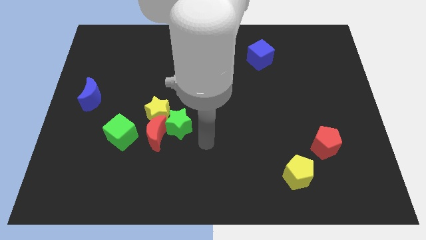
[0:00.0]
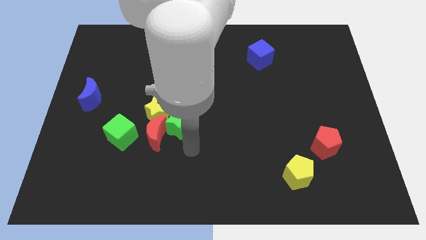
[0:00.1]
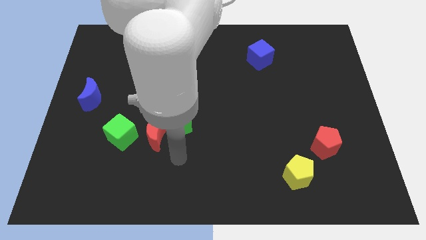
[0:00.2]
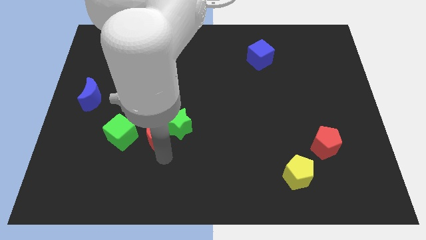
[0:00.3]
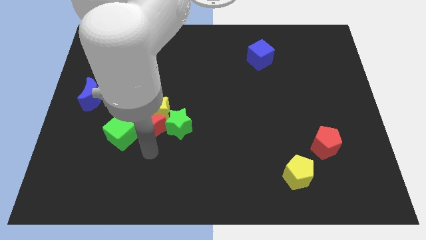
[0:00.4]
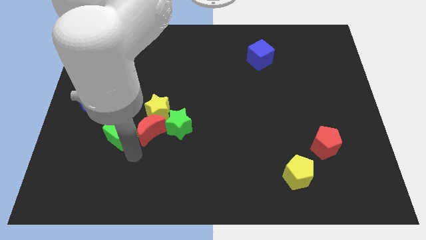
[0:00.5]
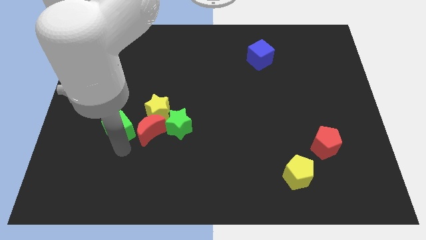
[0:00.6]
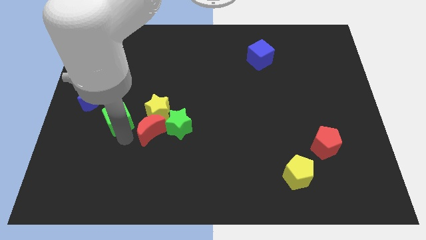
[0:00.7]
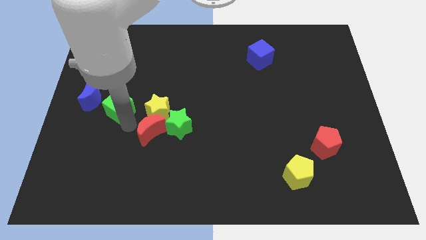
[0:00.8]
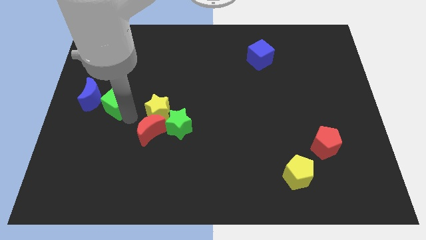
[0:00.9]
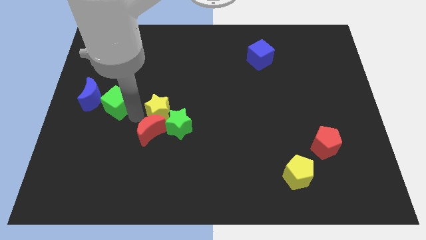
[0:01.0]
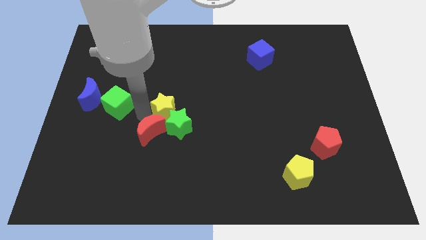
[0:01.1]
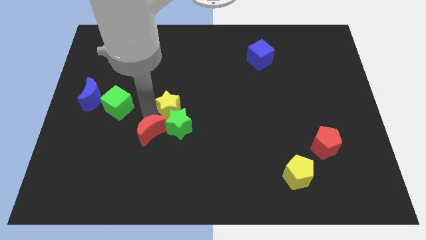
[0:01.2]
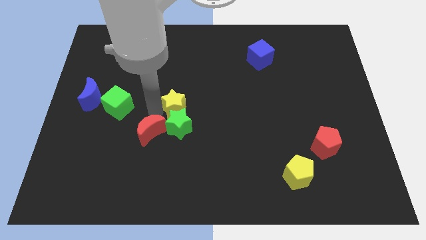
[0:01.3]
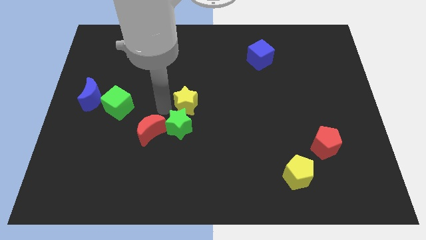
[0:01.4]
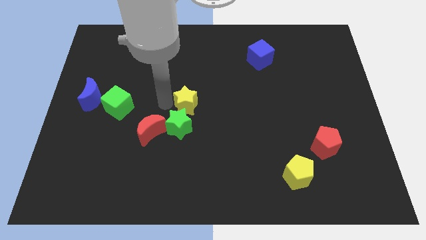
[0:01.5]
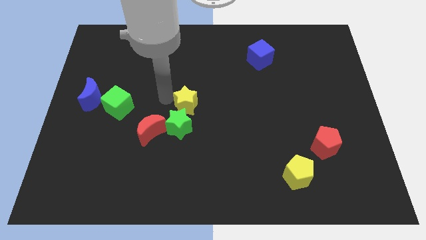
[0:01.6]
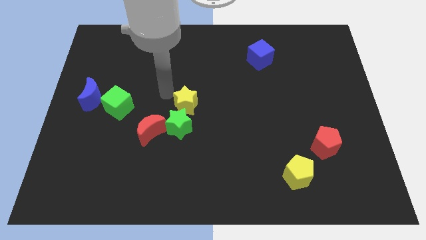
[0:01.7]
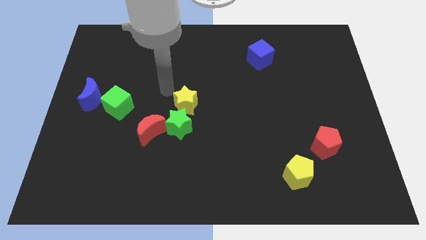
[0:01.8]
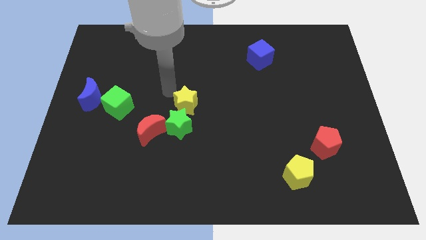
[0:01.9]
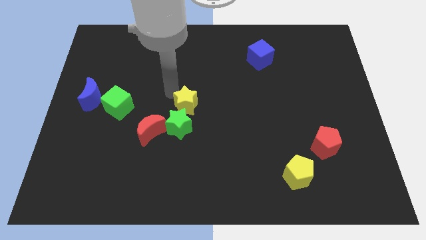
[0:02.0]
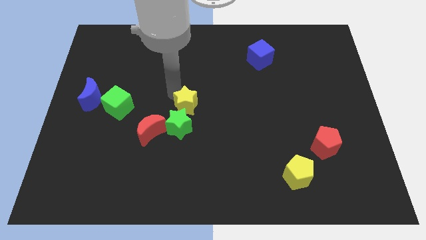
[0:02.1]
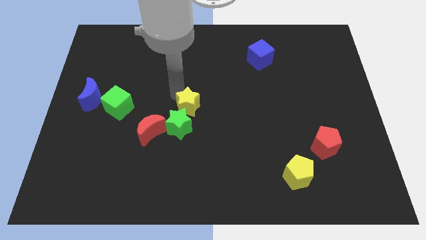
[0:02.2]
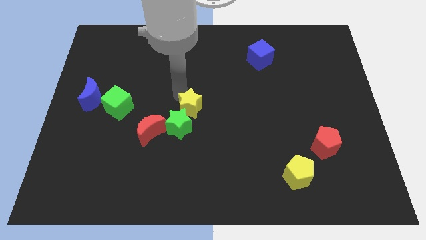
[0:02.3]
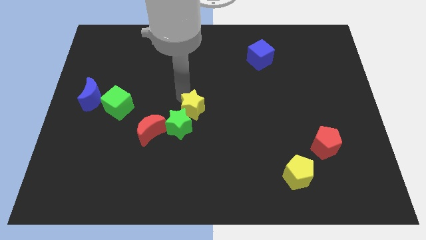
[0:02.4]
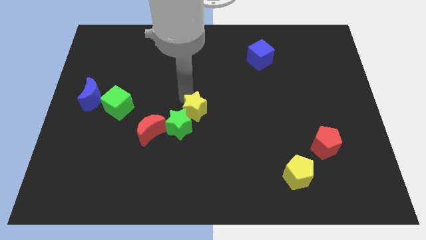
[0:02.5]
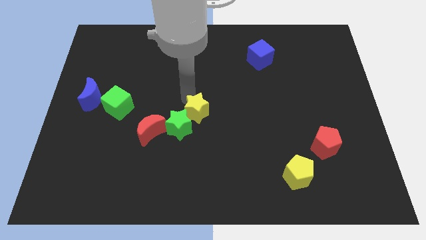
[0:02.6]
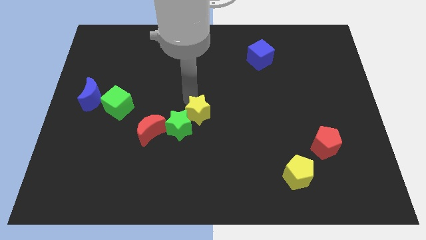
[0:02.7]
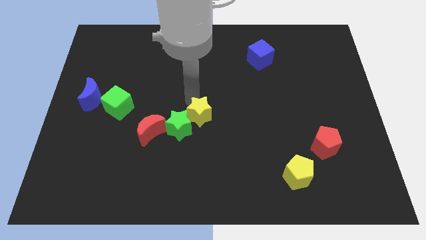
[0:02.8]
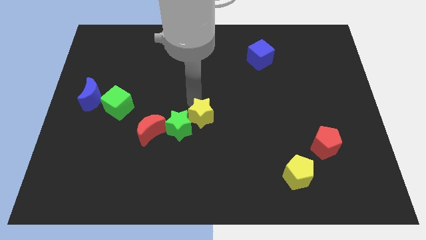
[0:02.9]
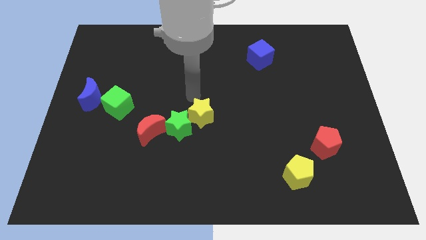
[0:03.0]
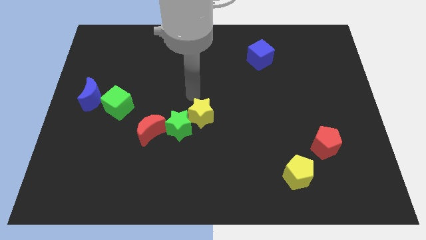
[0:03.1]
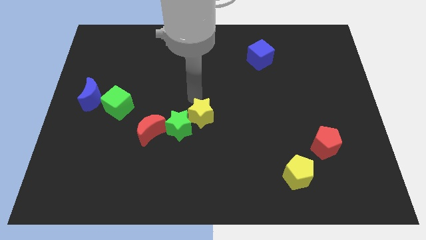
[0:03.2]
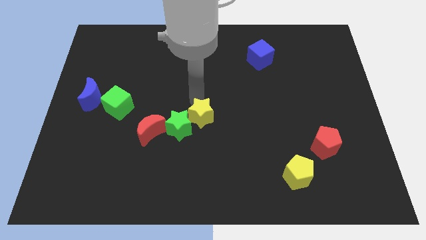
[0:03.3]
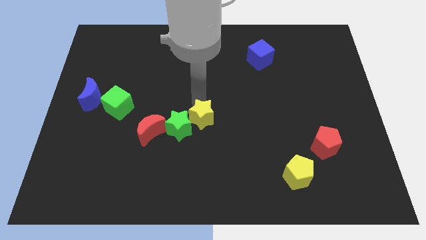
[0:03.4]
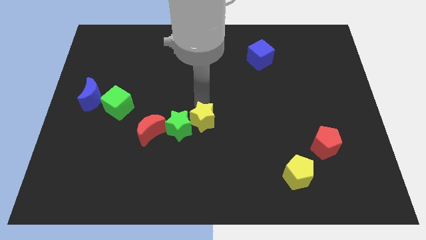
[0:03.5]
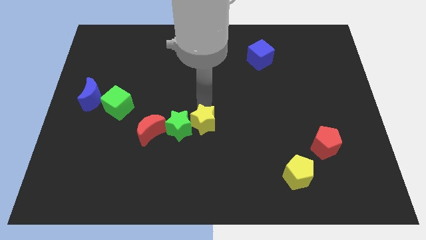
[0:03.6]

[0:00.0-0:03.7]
slide the yellow star diagonally downwards and to the right a little bit

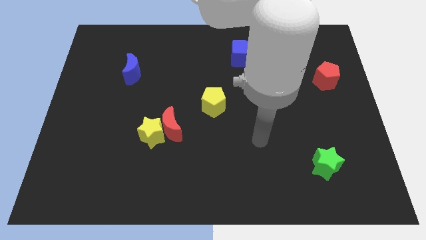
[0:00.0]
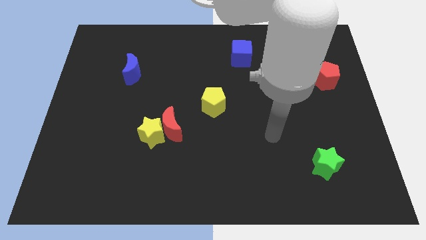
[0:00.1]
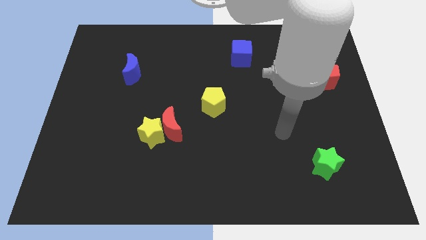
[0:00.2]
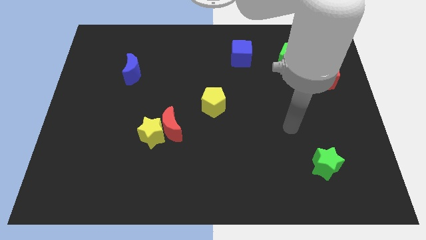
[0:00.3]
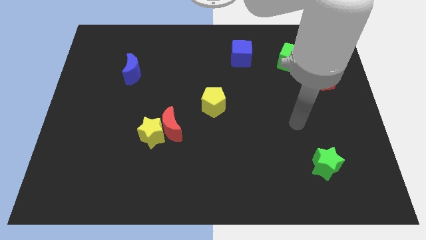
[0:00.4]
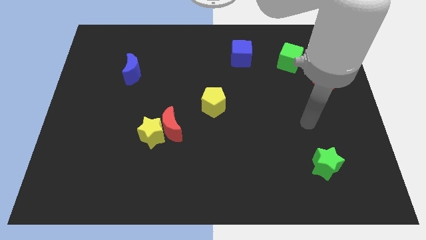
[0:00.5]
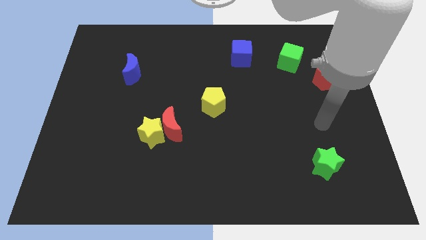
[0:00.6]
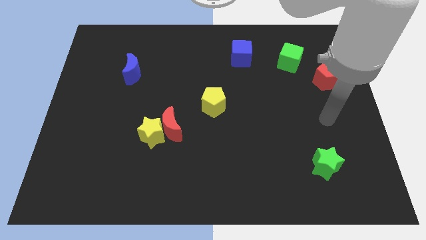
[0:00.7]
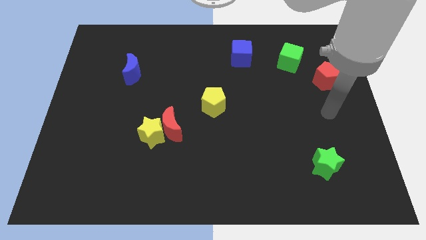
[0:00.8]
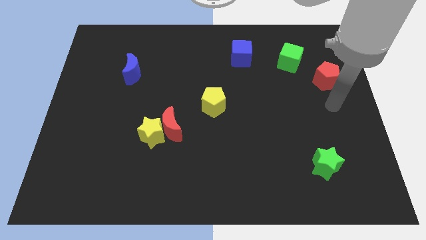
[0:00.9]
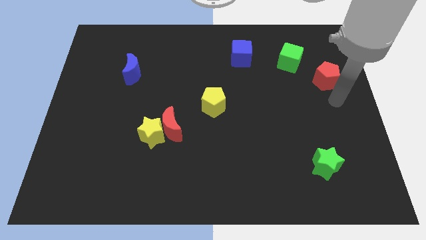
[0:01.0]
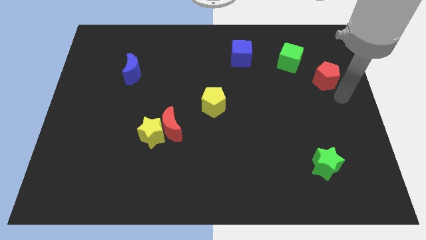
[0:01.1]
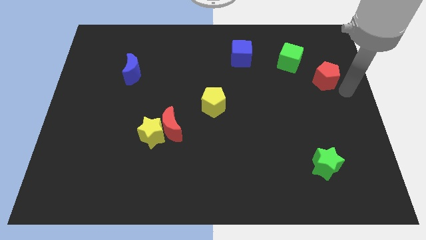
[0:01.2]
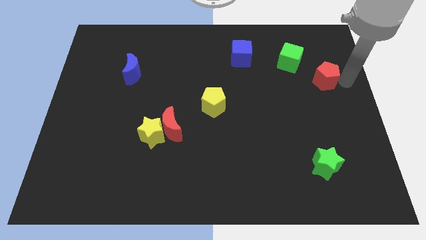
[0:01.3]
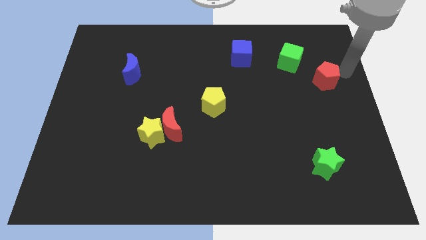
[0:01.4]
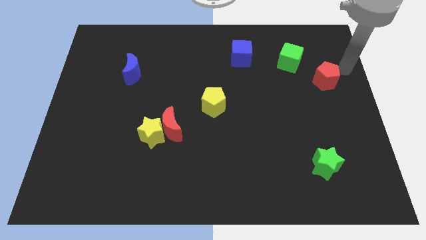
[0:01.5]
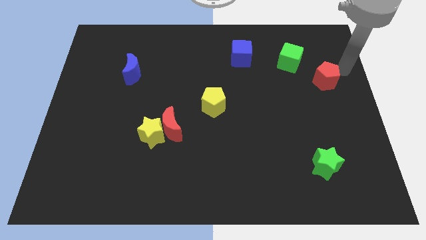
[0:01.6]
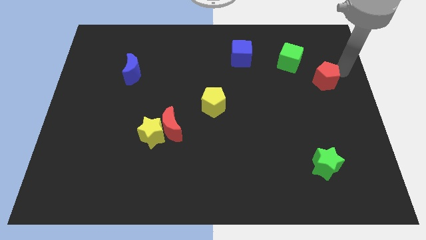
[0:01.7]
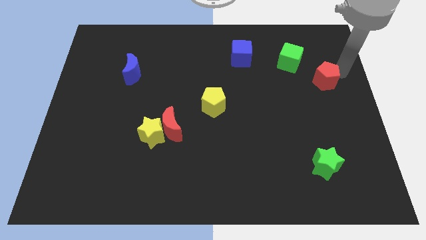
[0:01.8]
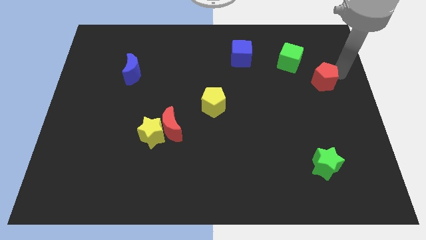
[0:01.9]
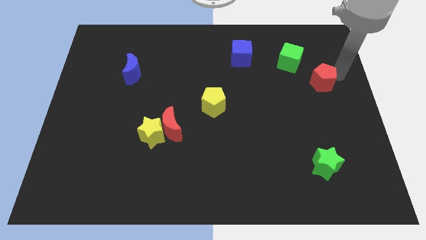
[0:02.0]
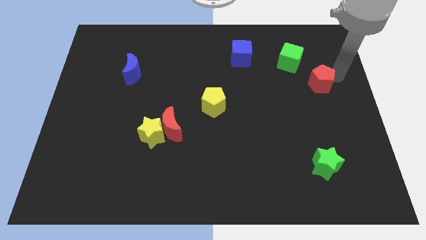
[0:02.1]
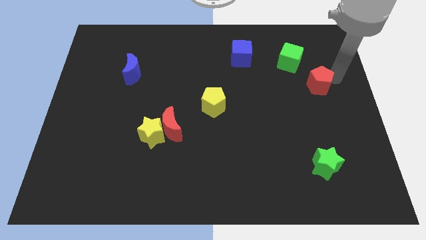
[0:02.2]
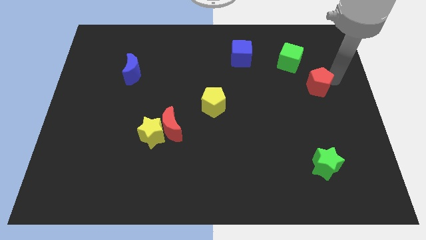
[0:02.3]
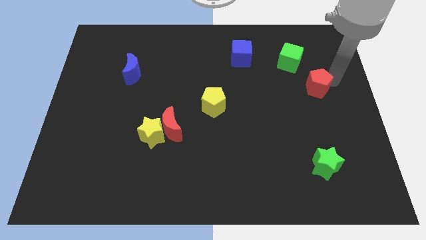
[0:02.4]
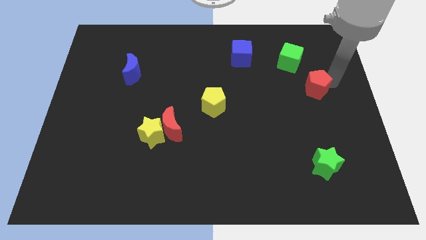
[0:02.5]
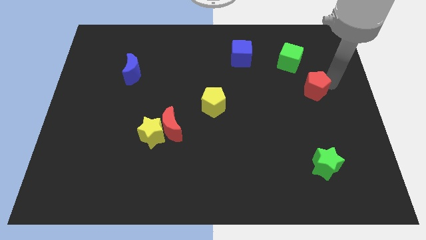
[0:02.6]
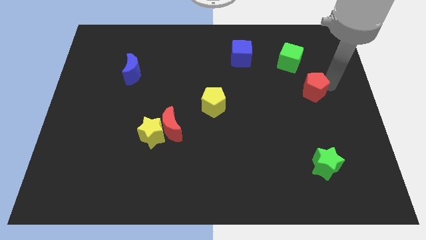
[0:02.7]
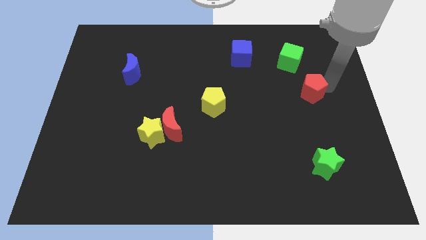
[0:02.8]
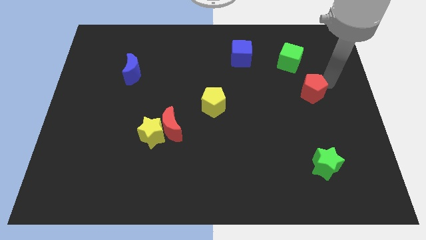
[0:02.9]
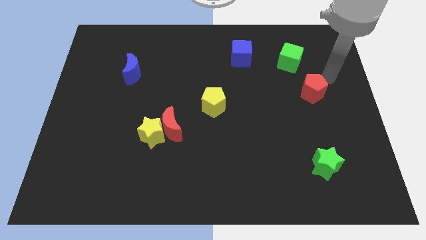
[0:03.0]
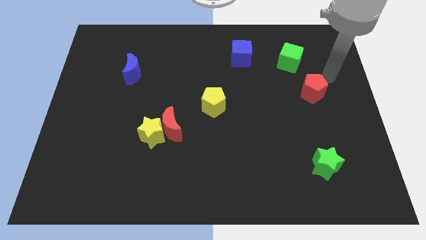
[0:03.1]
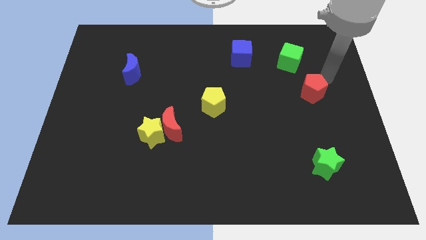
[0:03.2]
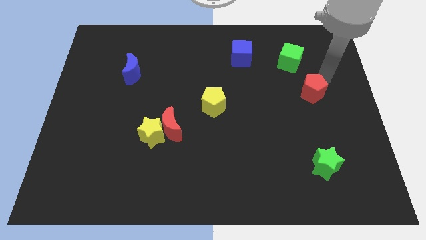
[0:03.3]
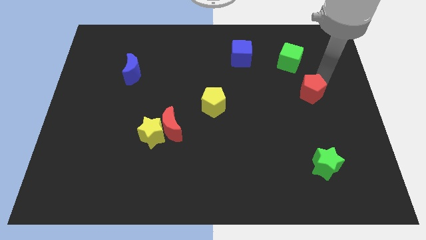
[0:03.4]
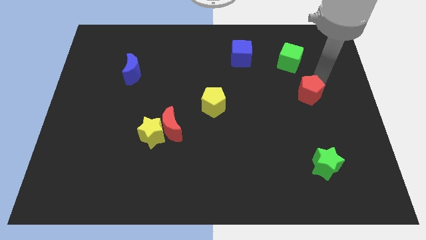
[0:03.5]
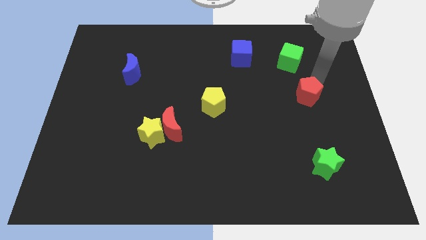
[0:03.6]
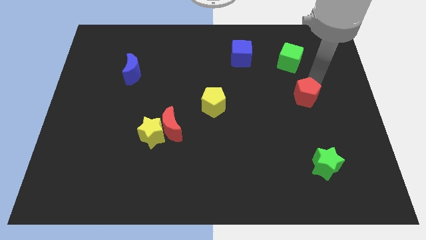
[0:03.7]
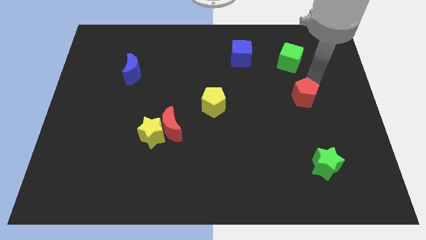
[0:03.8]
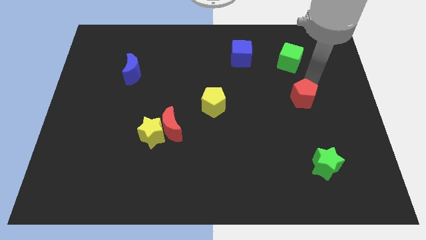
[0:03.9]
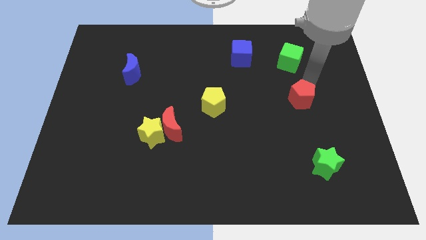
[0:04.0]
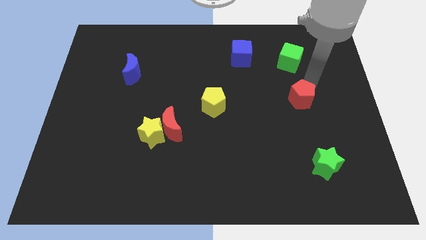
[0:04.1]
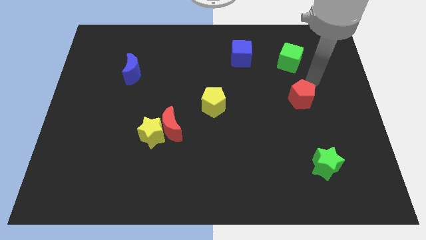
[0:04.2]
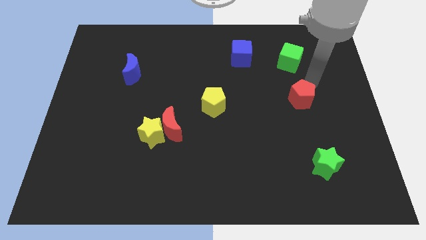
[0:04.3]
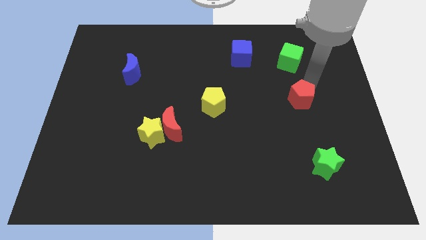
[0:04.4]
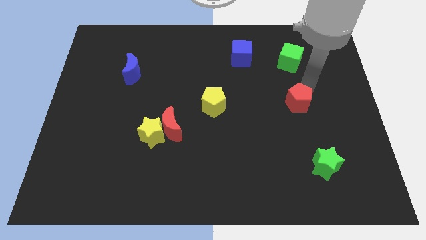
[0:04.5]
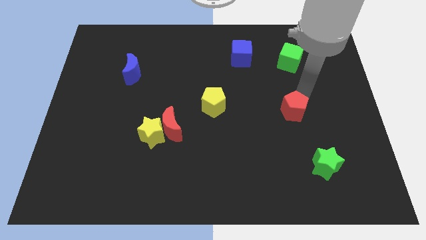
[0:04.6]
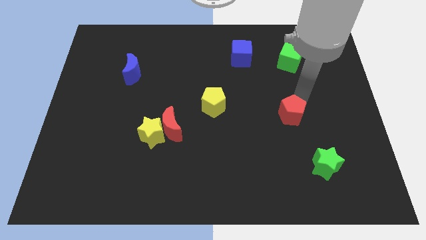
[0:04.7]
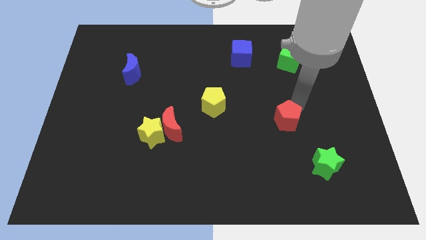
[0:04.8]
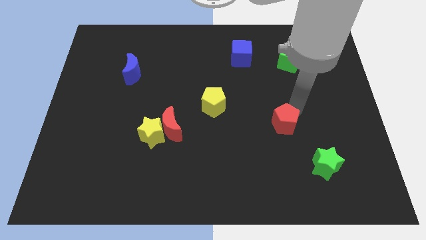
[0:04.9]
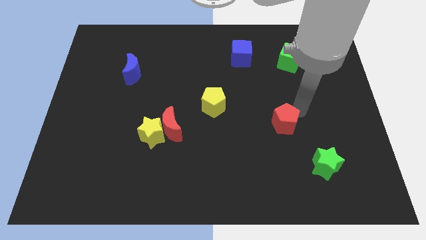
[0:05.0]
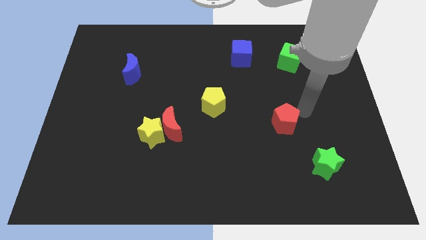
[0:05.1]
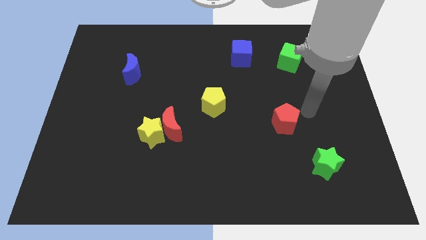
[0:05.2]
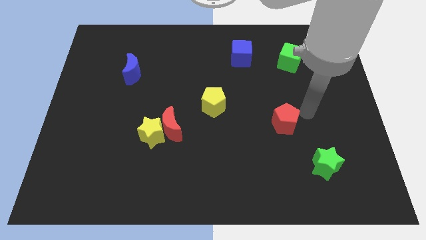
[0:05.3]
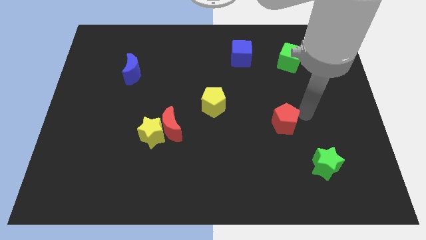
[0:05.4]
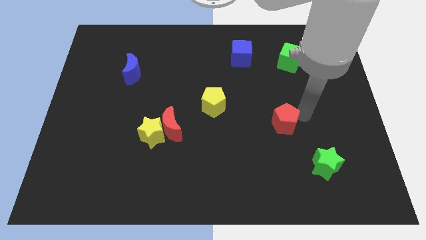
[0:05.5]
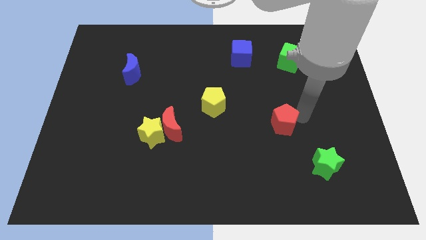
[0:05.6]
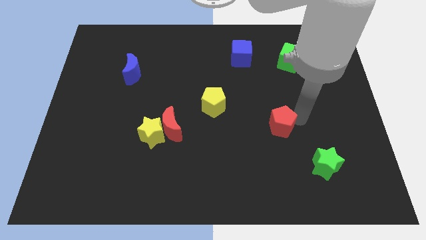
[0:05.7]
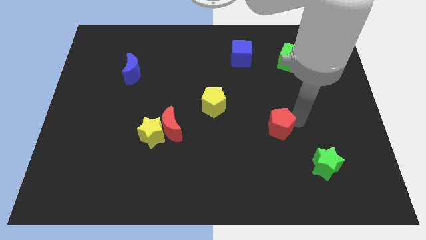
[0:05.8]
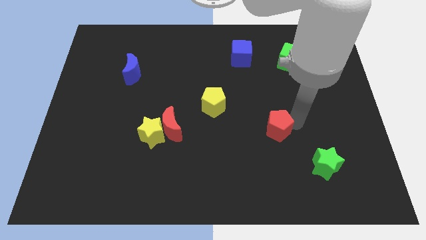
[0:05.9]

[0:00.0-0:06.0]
push the red pentagon diagonally down and to the left
